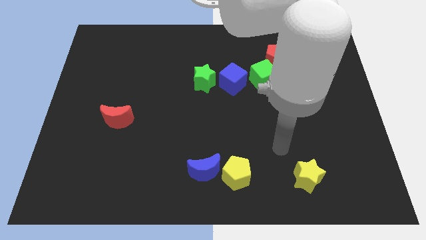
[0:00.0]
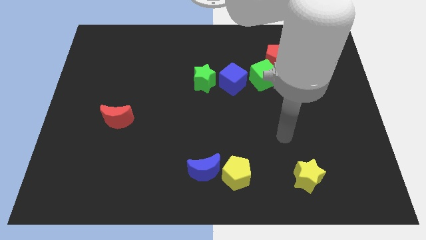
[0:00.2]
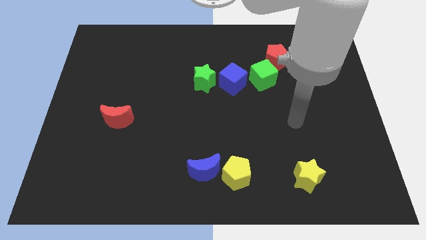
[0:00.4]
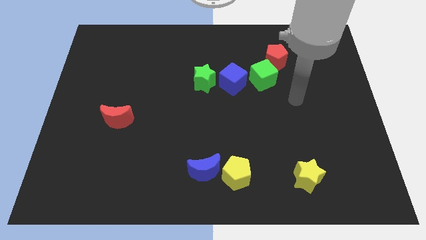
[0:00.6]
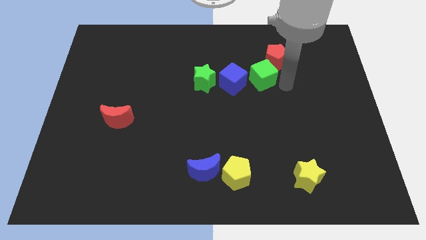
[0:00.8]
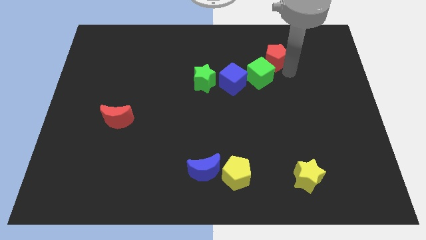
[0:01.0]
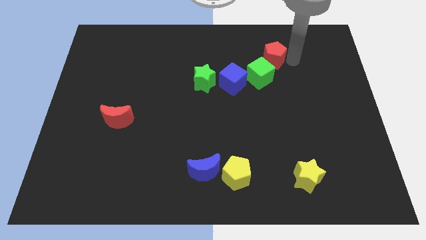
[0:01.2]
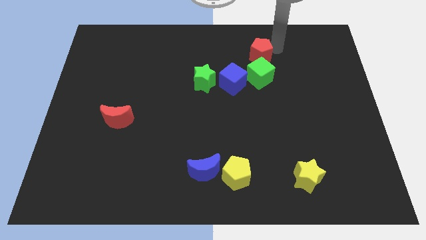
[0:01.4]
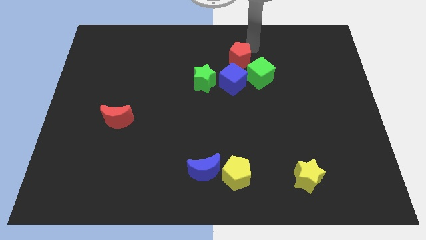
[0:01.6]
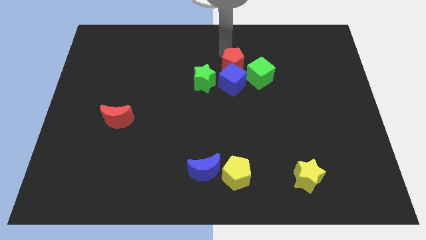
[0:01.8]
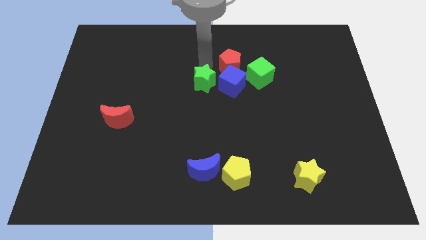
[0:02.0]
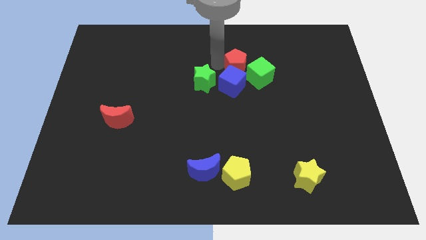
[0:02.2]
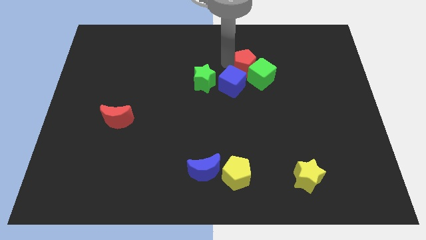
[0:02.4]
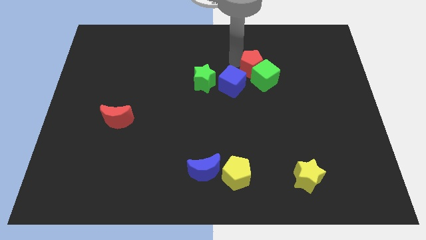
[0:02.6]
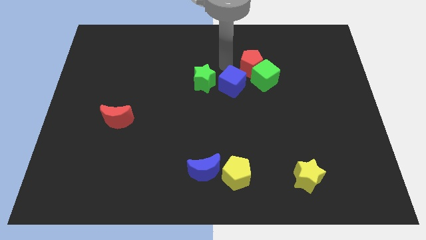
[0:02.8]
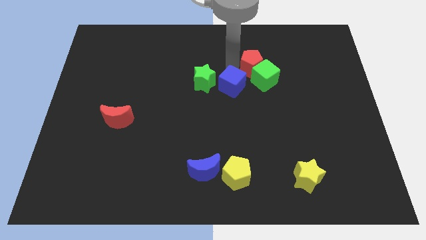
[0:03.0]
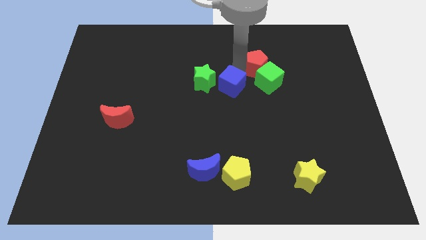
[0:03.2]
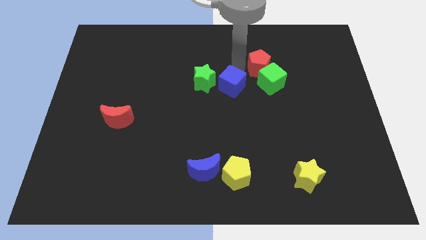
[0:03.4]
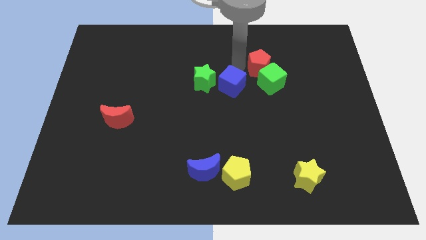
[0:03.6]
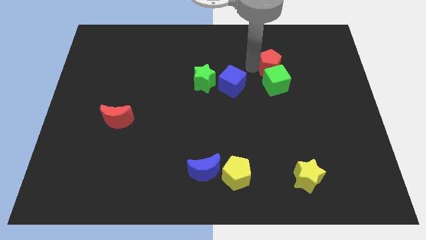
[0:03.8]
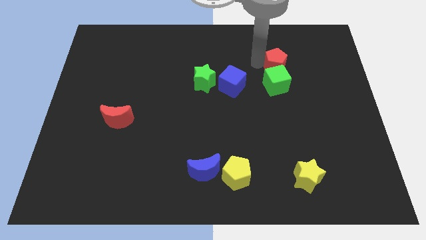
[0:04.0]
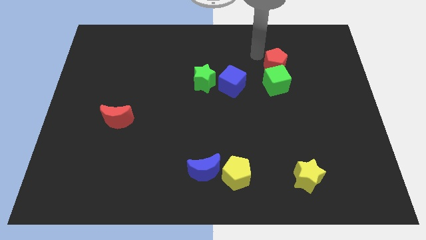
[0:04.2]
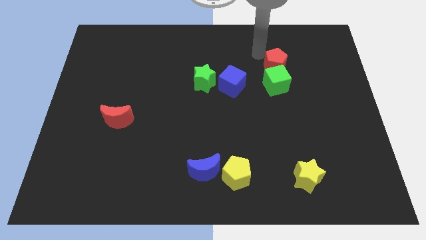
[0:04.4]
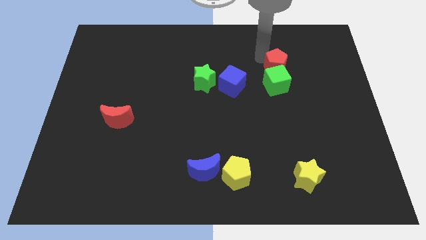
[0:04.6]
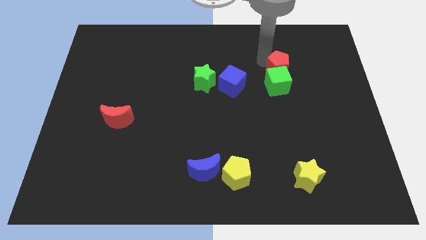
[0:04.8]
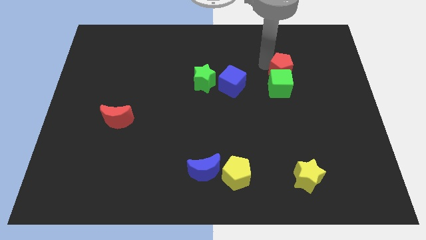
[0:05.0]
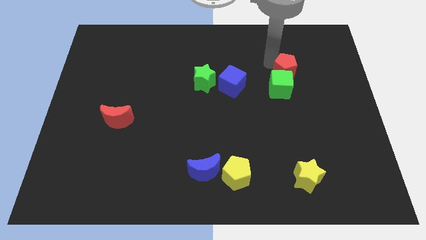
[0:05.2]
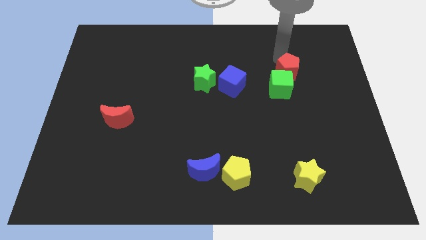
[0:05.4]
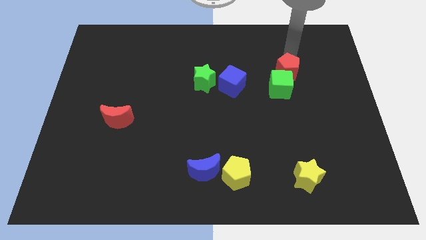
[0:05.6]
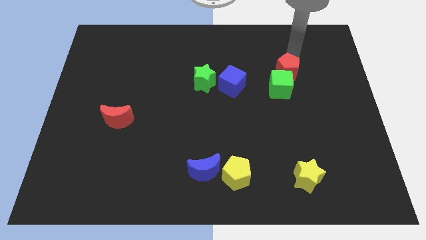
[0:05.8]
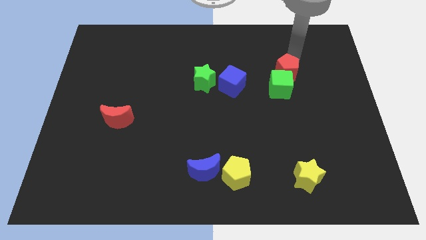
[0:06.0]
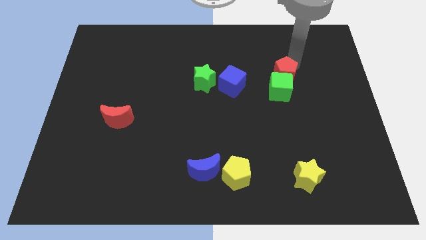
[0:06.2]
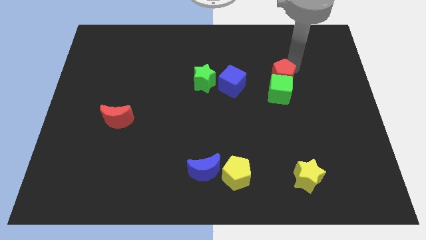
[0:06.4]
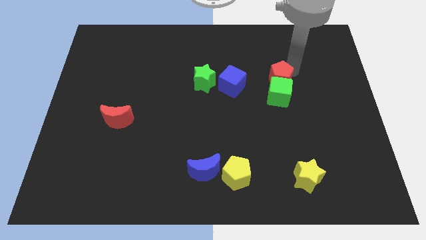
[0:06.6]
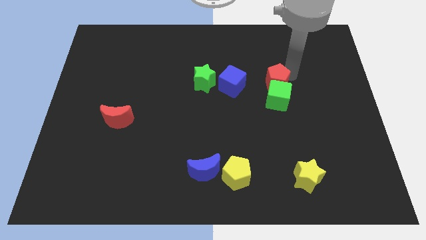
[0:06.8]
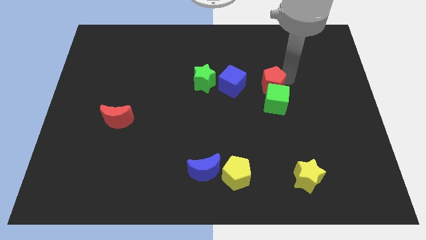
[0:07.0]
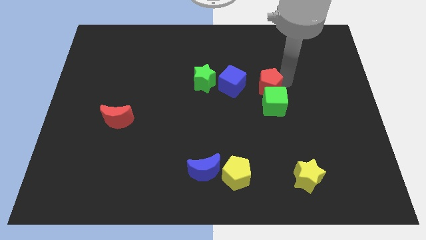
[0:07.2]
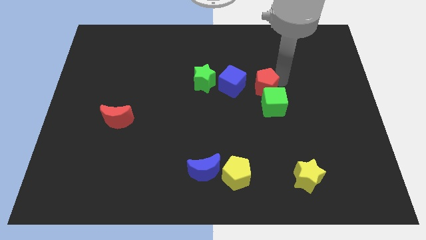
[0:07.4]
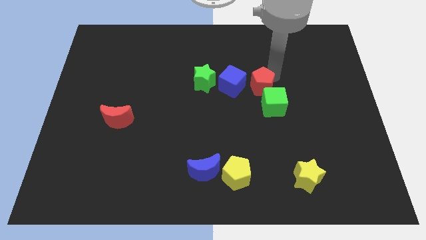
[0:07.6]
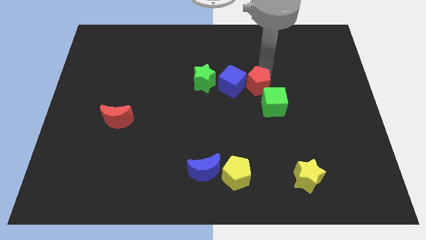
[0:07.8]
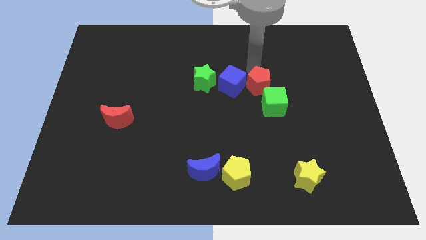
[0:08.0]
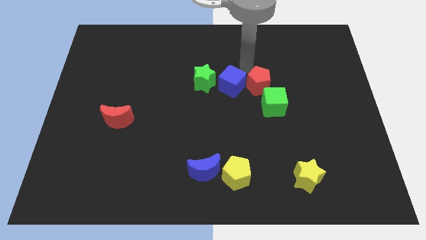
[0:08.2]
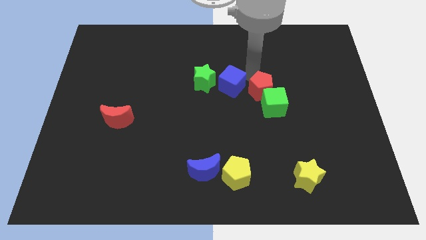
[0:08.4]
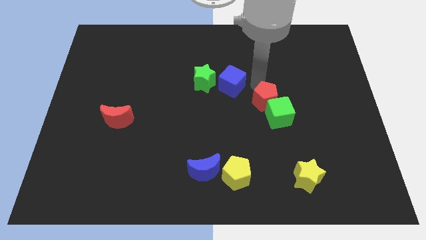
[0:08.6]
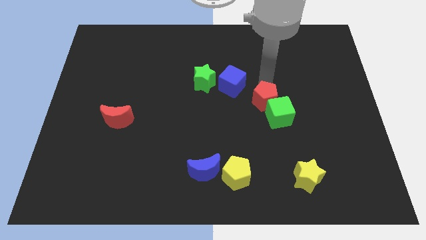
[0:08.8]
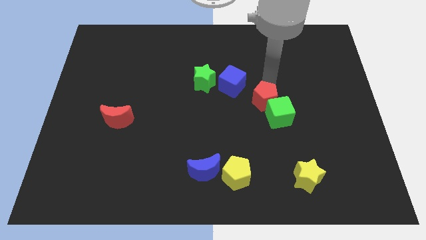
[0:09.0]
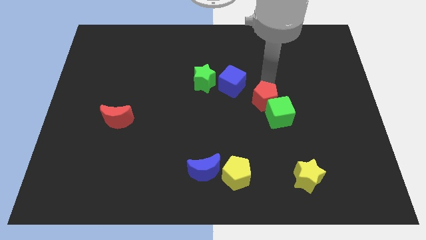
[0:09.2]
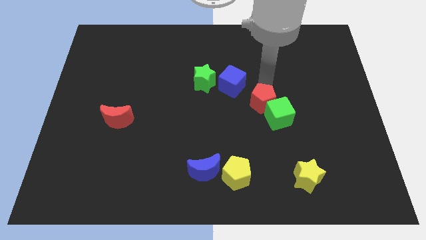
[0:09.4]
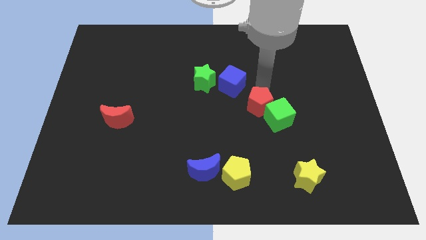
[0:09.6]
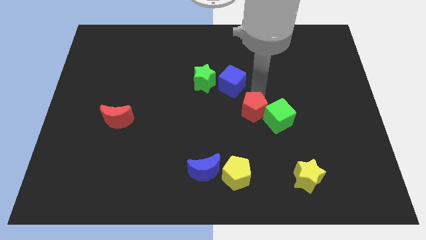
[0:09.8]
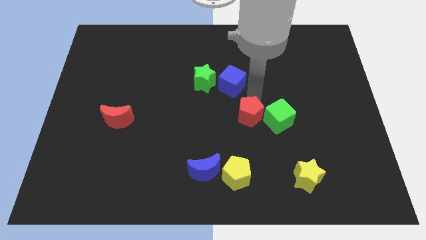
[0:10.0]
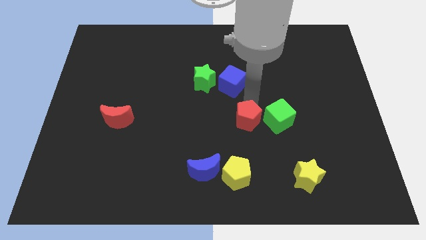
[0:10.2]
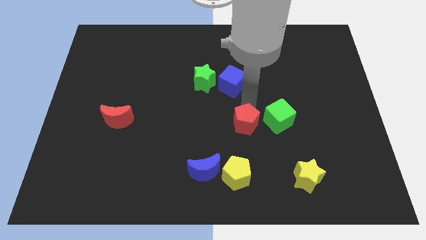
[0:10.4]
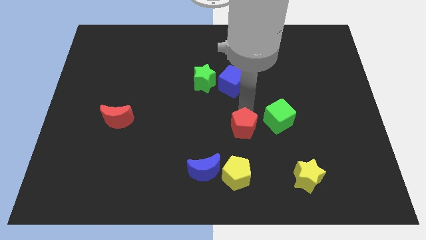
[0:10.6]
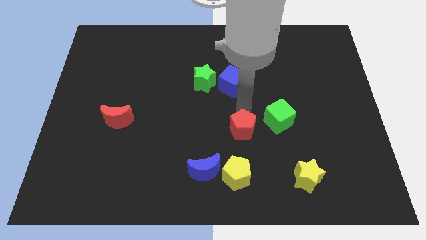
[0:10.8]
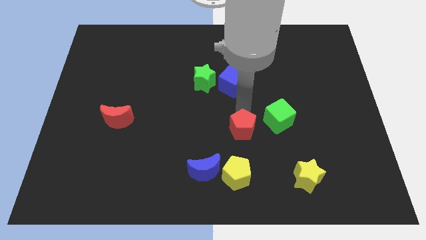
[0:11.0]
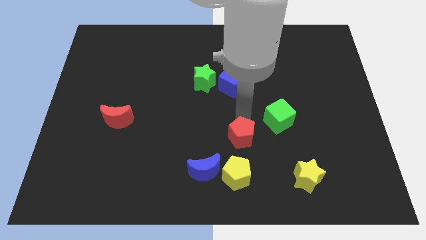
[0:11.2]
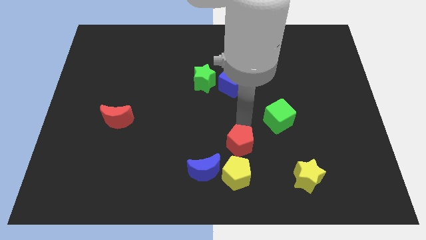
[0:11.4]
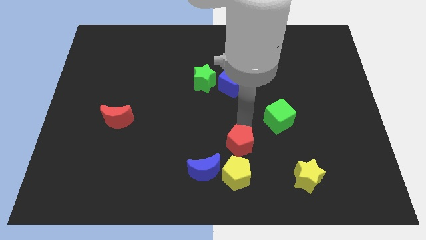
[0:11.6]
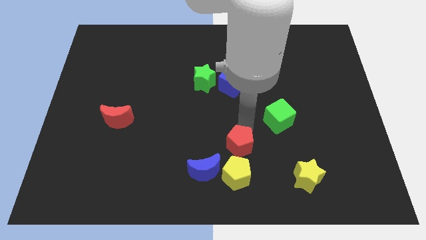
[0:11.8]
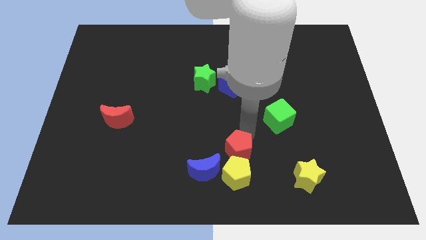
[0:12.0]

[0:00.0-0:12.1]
put the red pentagon next to the yellow pentagon
